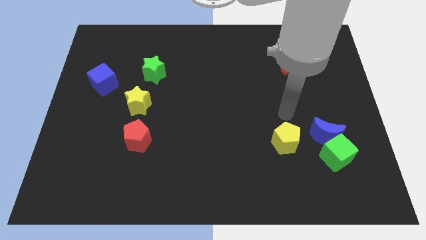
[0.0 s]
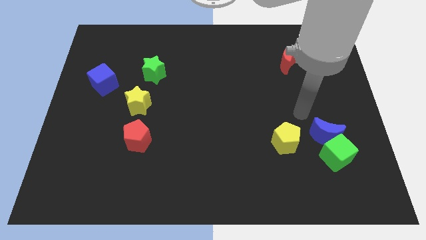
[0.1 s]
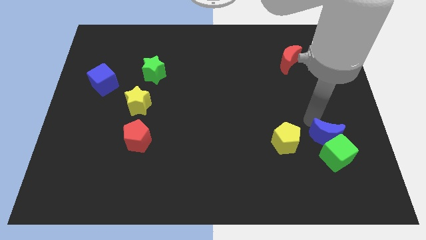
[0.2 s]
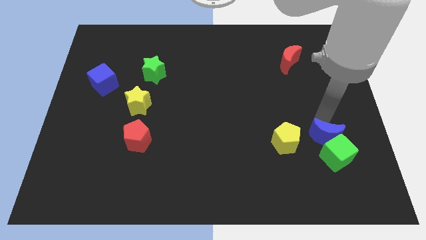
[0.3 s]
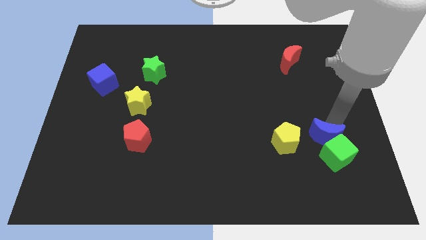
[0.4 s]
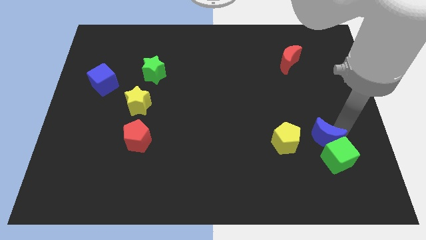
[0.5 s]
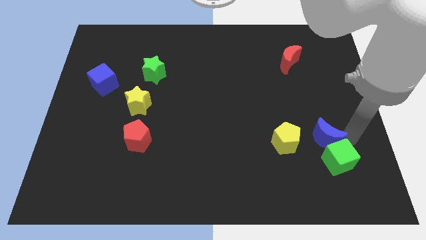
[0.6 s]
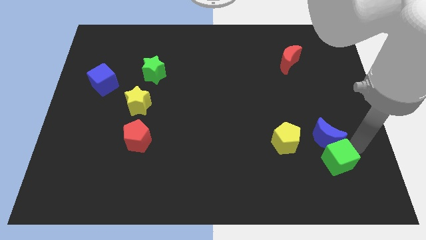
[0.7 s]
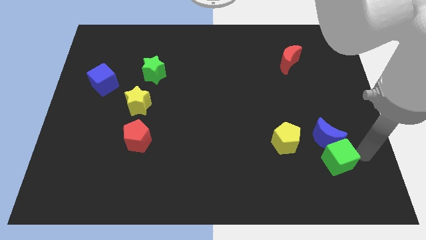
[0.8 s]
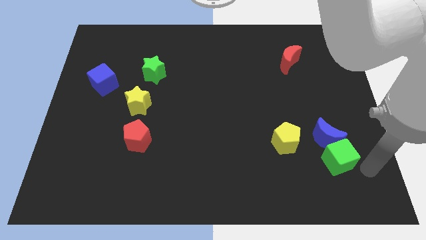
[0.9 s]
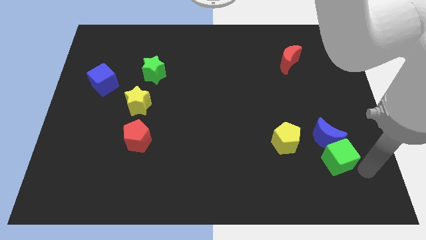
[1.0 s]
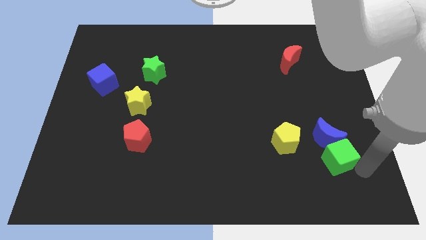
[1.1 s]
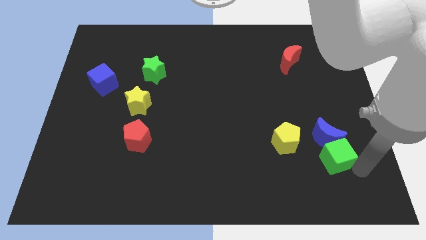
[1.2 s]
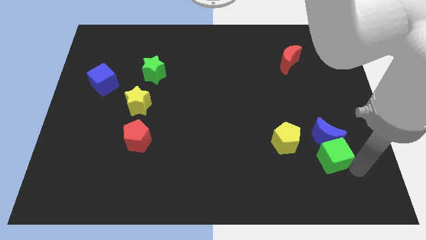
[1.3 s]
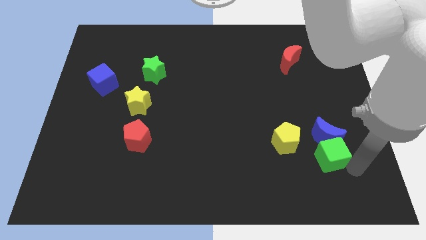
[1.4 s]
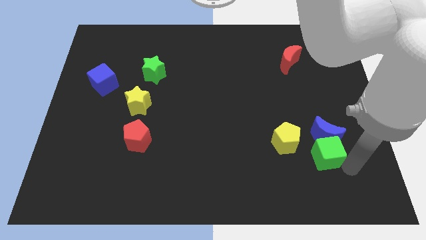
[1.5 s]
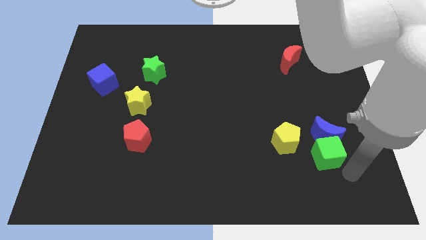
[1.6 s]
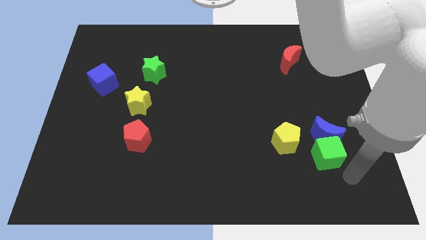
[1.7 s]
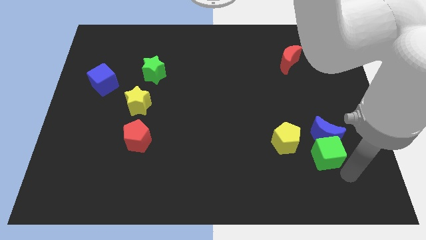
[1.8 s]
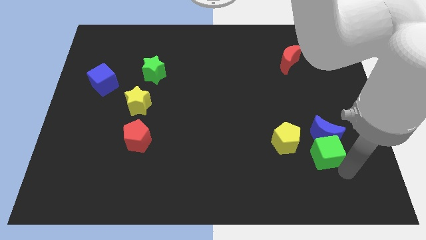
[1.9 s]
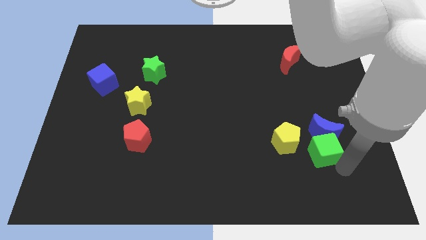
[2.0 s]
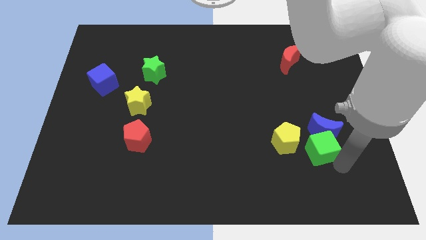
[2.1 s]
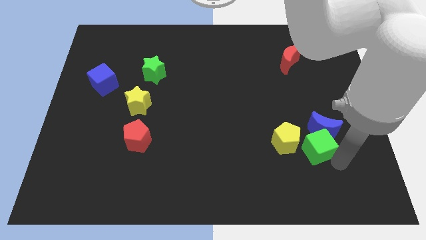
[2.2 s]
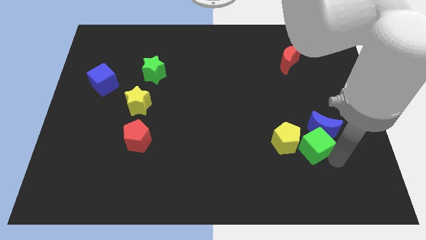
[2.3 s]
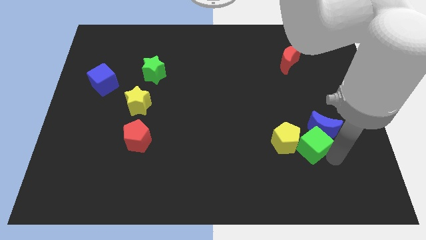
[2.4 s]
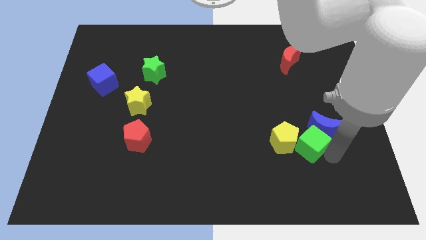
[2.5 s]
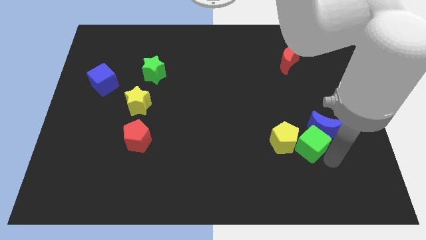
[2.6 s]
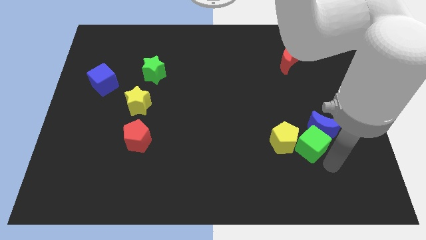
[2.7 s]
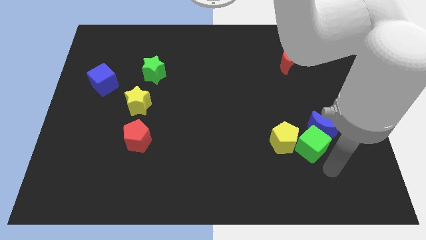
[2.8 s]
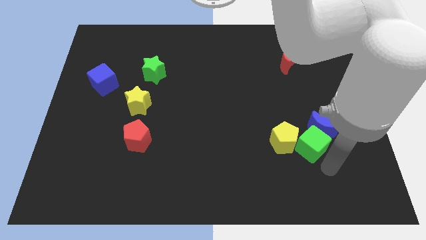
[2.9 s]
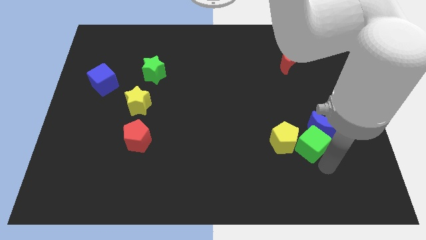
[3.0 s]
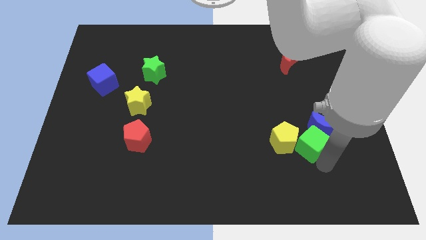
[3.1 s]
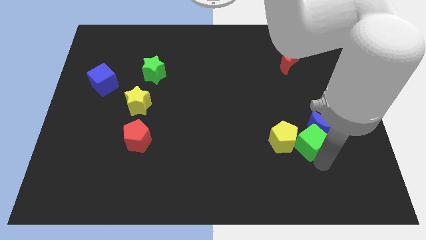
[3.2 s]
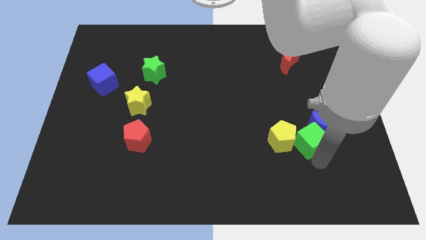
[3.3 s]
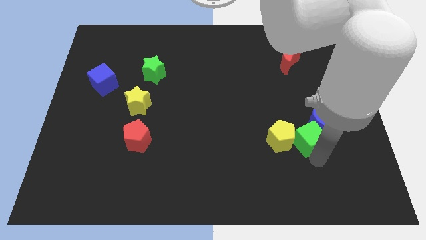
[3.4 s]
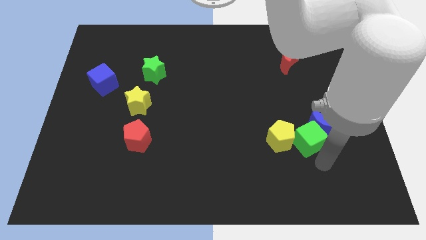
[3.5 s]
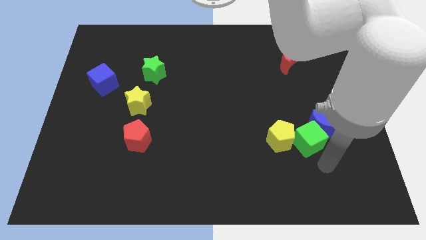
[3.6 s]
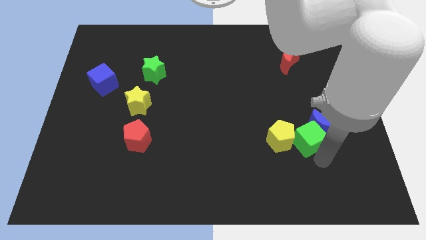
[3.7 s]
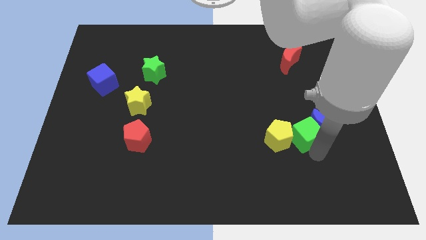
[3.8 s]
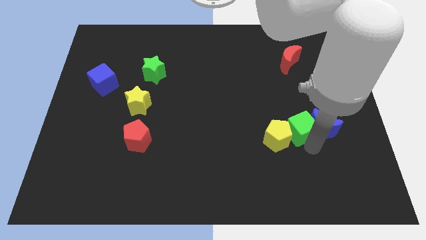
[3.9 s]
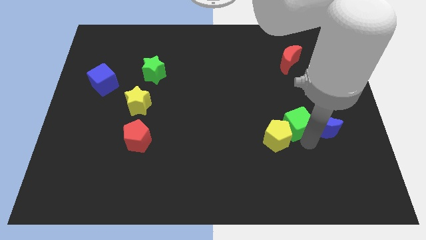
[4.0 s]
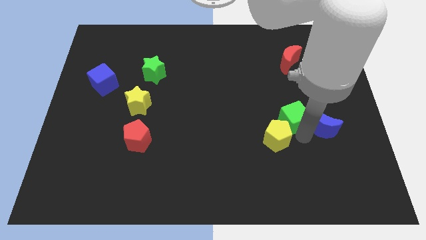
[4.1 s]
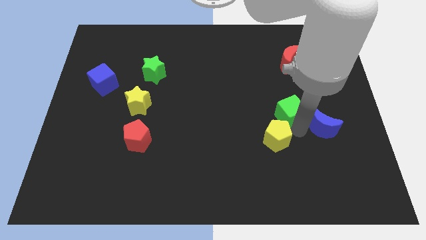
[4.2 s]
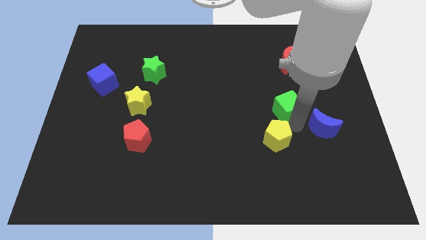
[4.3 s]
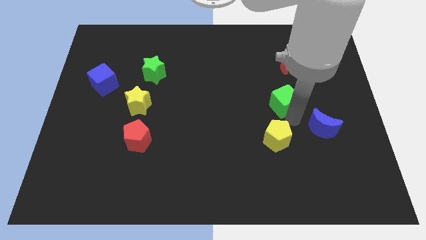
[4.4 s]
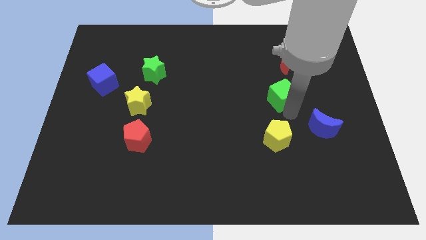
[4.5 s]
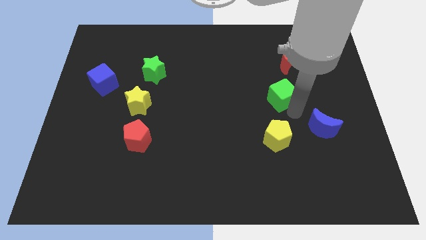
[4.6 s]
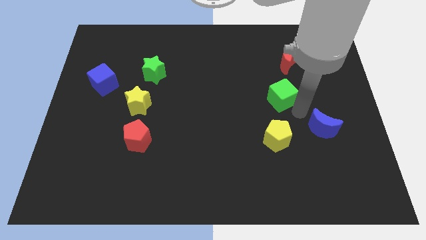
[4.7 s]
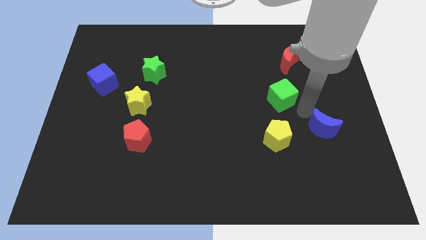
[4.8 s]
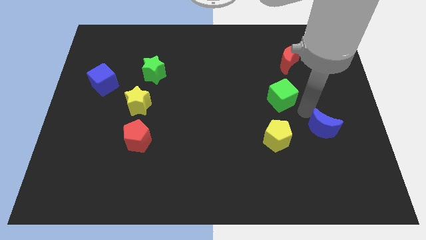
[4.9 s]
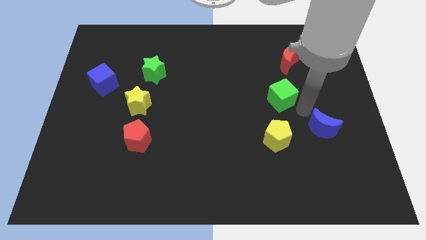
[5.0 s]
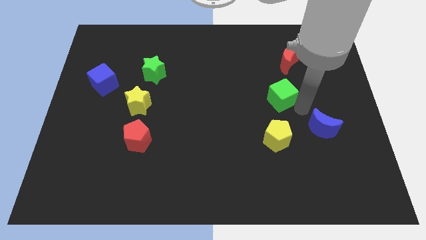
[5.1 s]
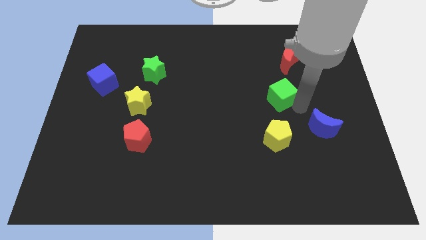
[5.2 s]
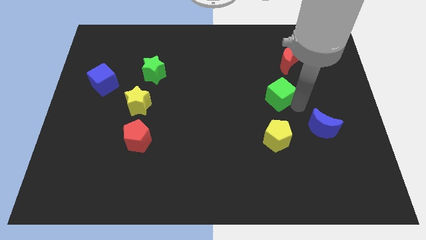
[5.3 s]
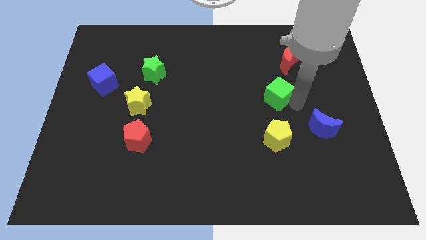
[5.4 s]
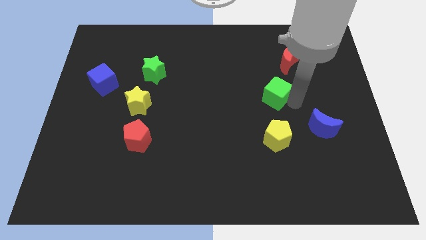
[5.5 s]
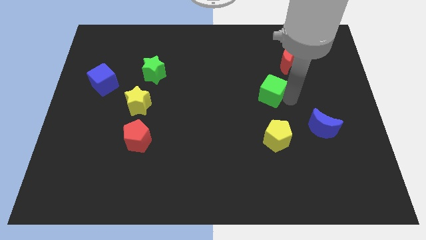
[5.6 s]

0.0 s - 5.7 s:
push the green cube diagonally up and to the left

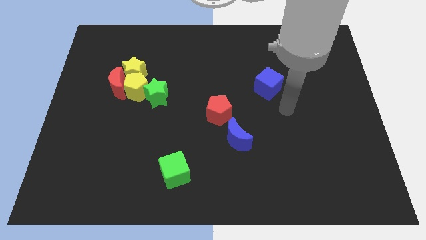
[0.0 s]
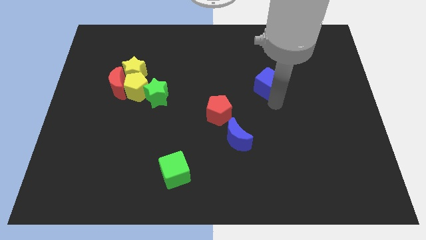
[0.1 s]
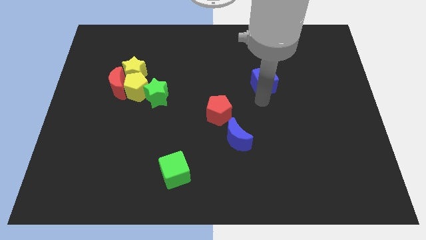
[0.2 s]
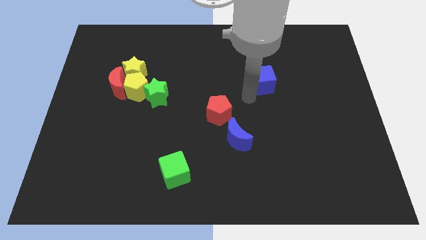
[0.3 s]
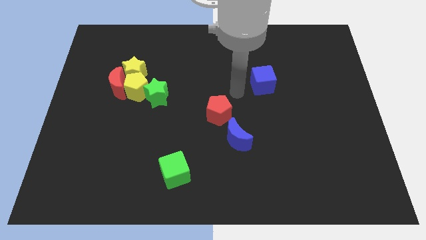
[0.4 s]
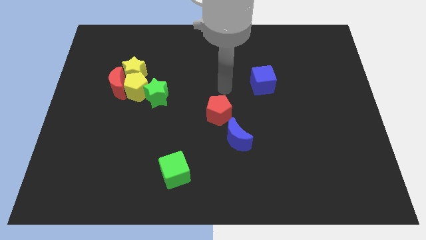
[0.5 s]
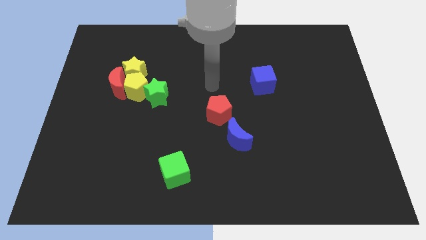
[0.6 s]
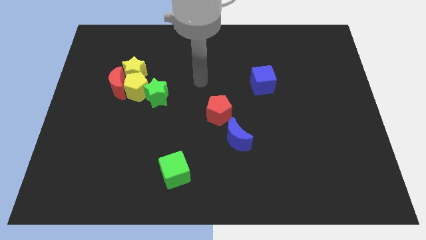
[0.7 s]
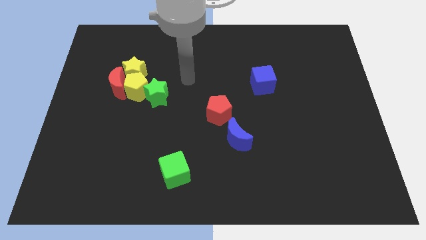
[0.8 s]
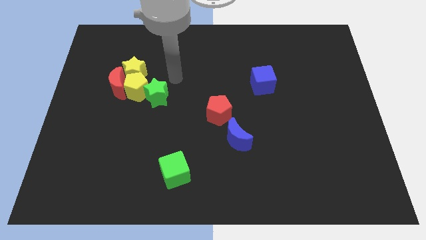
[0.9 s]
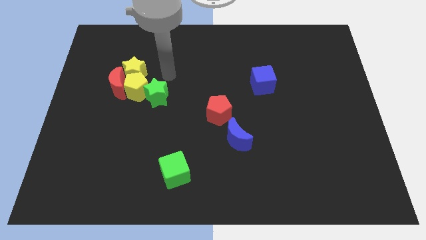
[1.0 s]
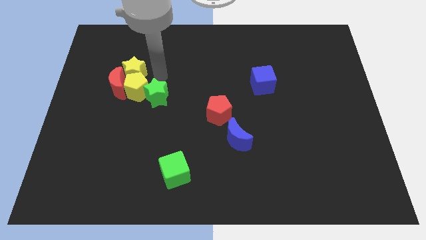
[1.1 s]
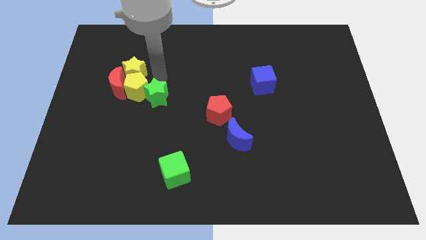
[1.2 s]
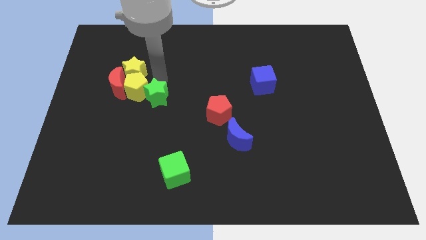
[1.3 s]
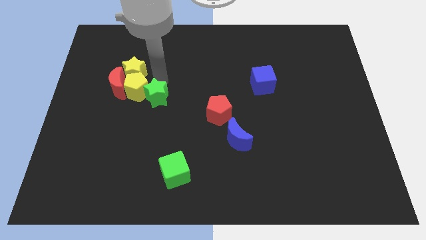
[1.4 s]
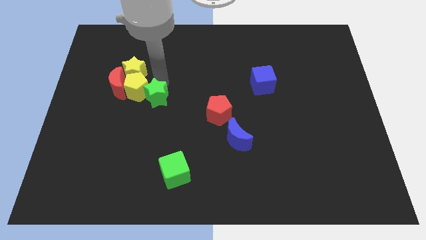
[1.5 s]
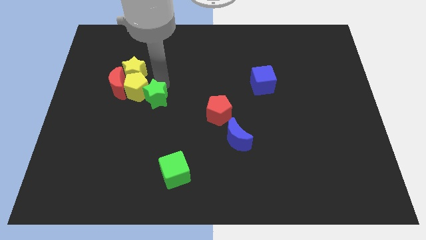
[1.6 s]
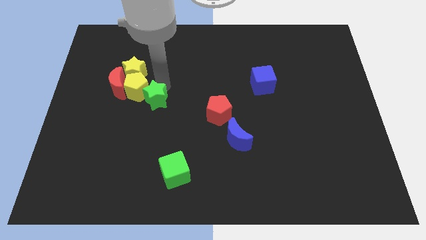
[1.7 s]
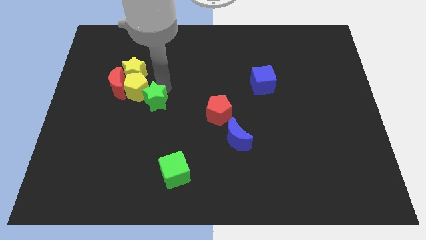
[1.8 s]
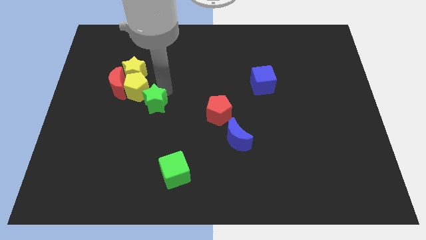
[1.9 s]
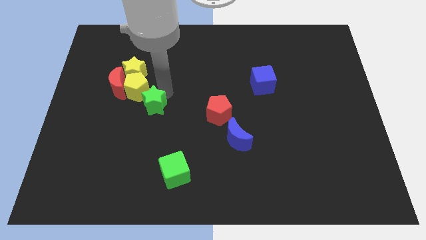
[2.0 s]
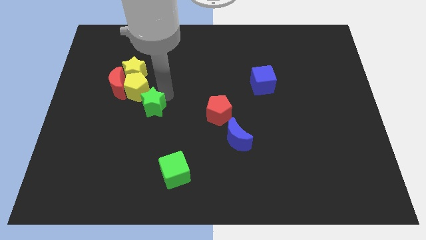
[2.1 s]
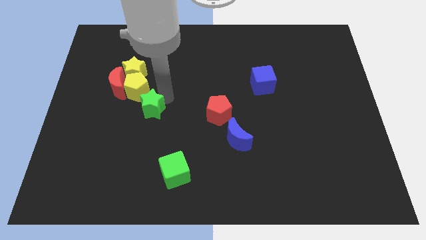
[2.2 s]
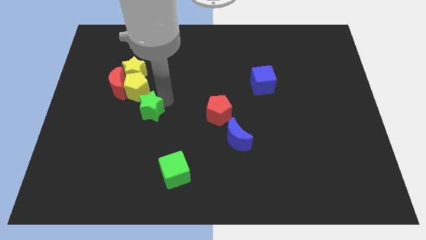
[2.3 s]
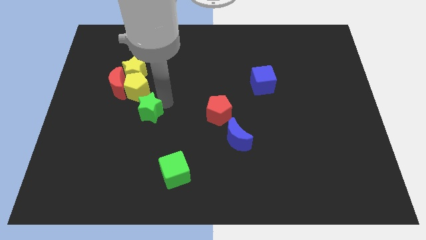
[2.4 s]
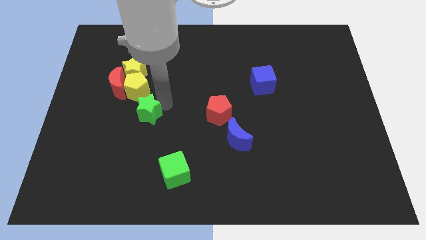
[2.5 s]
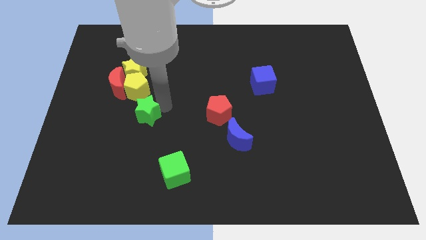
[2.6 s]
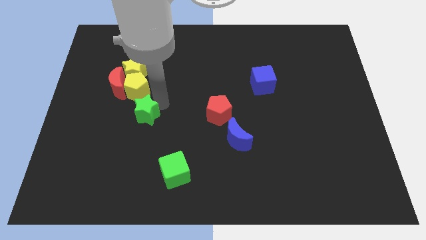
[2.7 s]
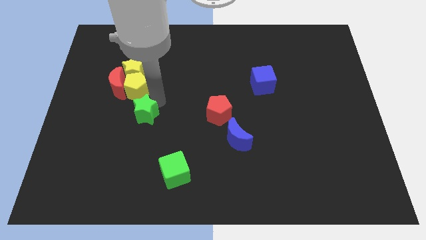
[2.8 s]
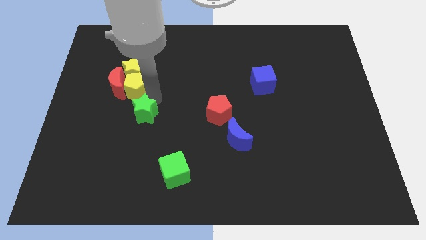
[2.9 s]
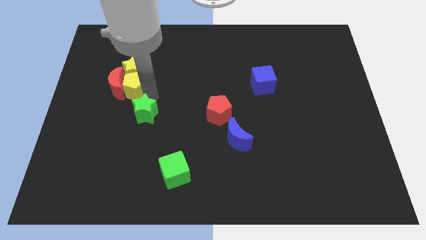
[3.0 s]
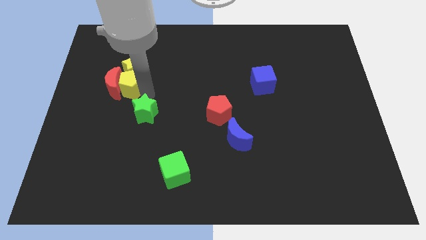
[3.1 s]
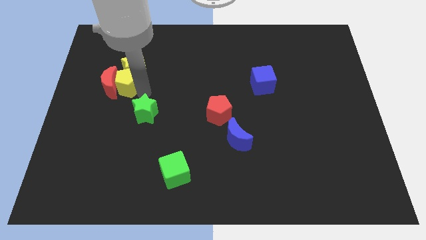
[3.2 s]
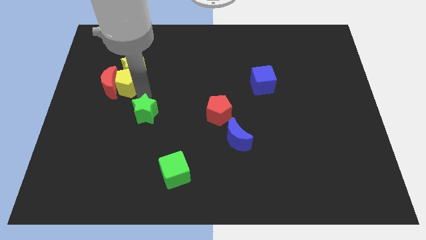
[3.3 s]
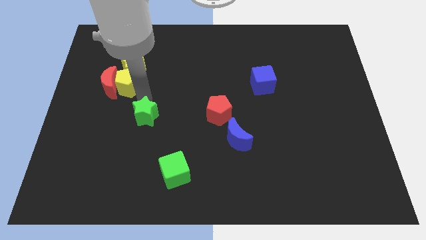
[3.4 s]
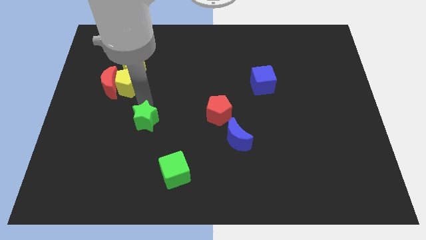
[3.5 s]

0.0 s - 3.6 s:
move the green star a bit downwards
